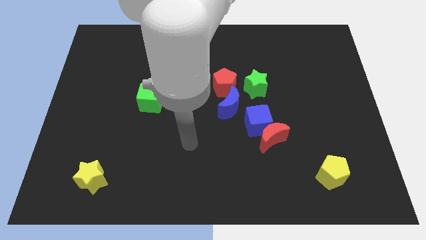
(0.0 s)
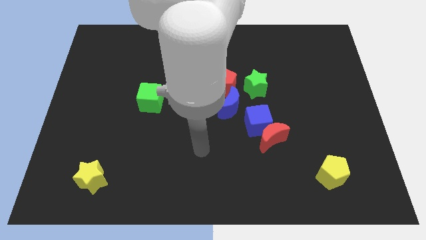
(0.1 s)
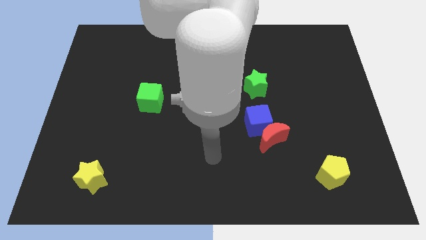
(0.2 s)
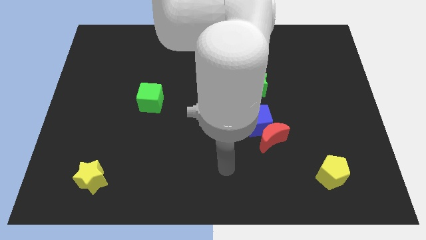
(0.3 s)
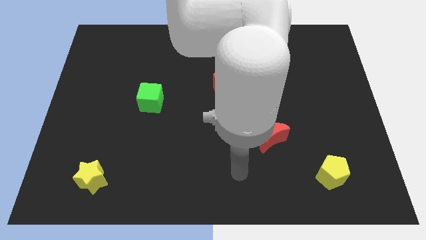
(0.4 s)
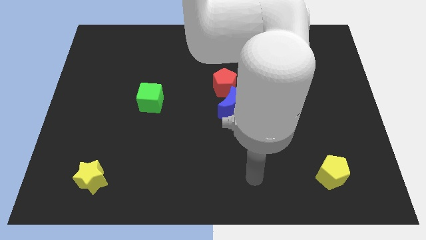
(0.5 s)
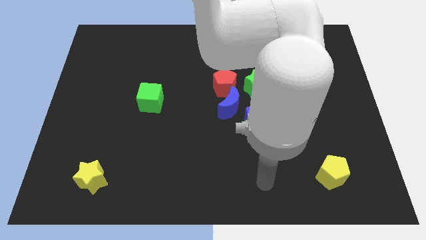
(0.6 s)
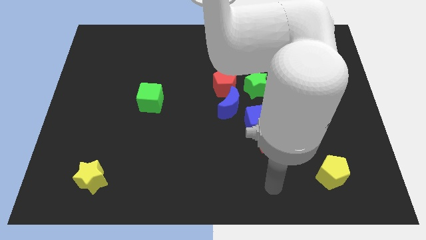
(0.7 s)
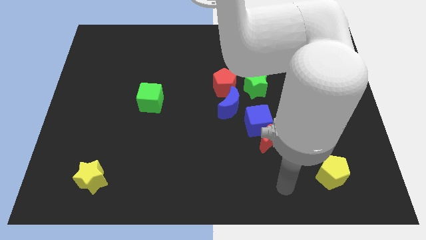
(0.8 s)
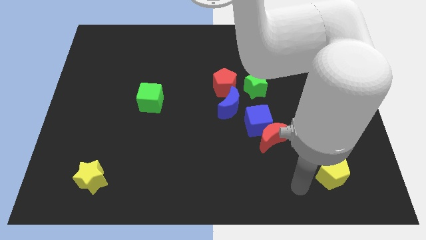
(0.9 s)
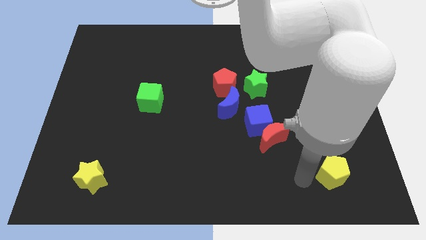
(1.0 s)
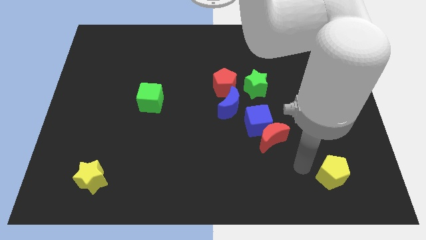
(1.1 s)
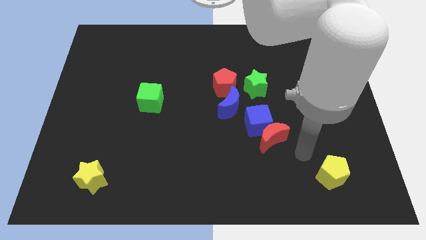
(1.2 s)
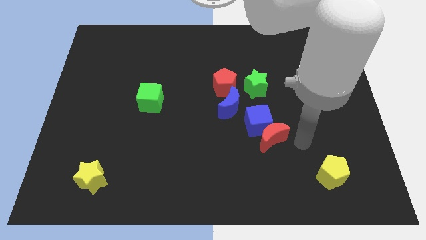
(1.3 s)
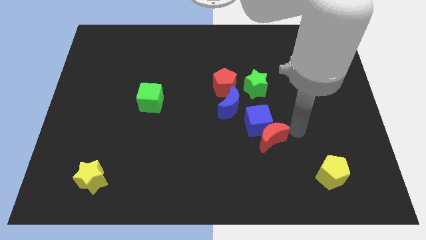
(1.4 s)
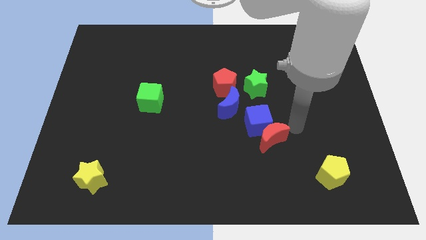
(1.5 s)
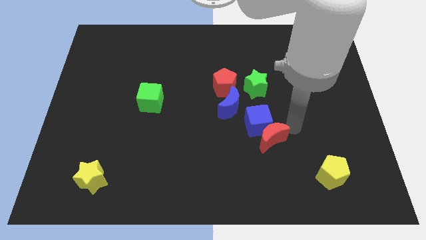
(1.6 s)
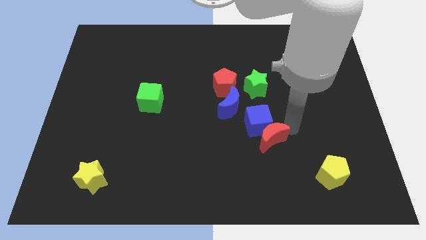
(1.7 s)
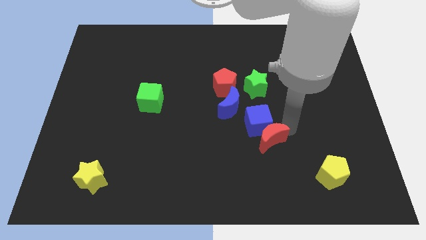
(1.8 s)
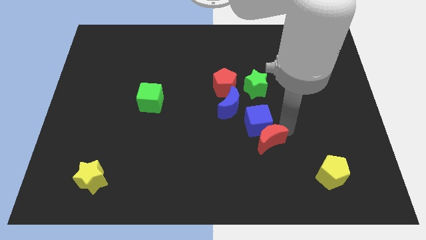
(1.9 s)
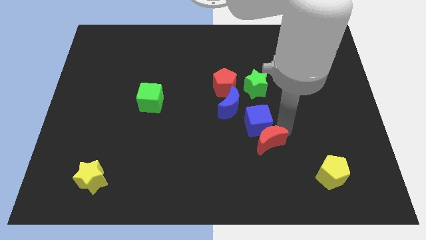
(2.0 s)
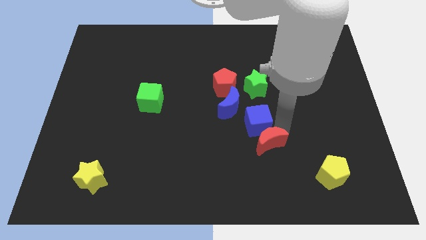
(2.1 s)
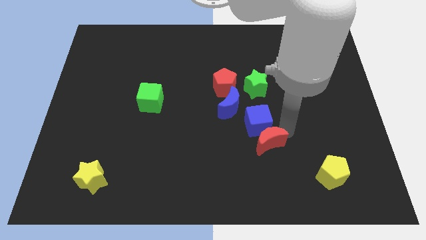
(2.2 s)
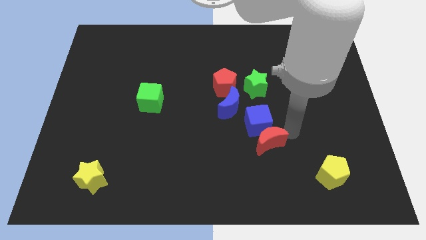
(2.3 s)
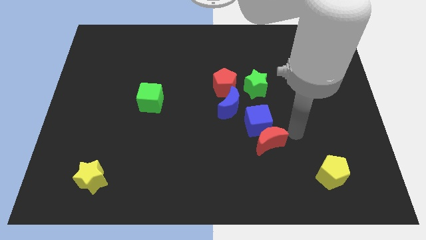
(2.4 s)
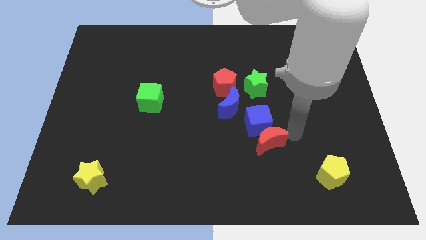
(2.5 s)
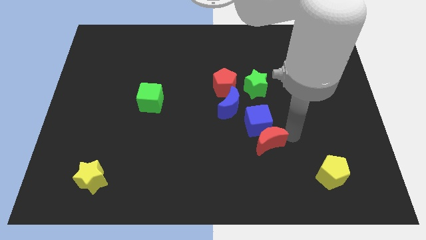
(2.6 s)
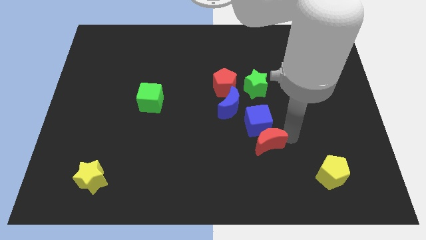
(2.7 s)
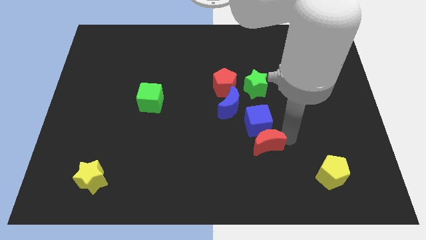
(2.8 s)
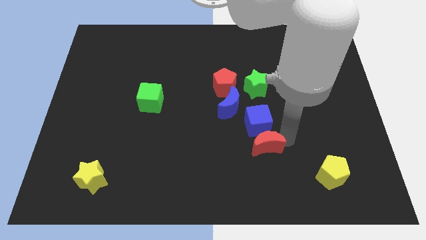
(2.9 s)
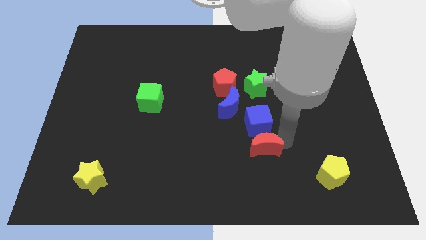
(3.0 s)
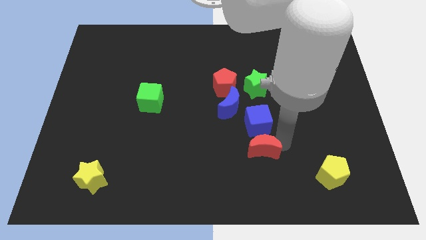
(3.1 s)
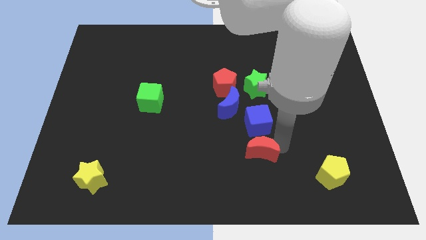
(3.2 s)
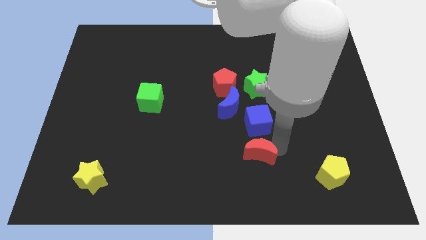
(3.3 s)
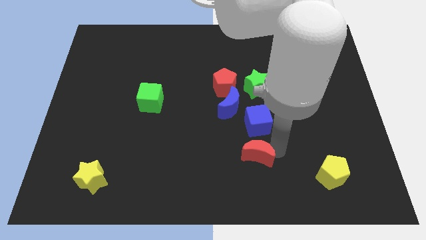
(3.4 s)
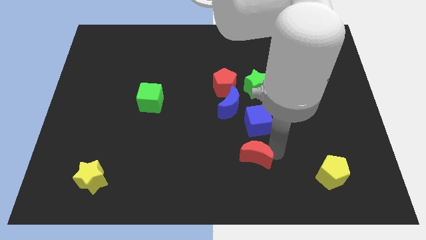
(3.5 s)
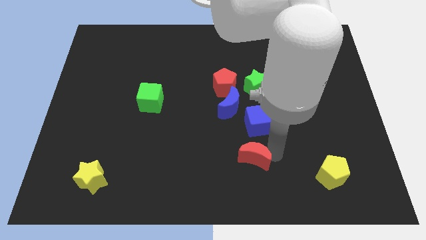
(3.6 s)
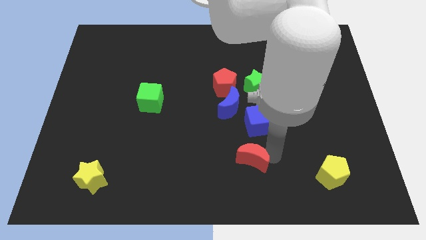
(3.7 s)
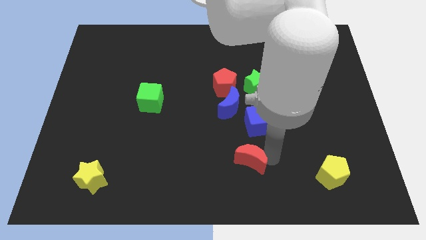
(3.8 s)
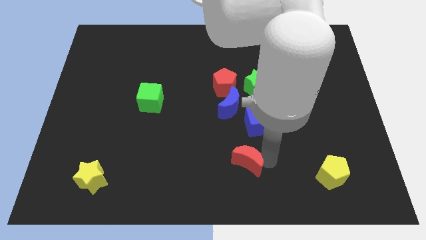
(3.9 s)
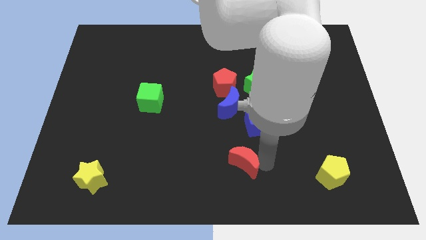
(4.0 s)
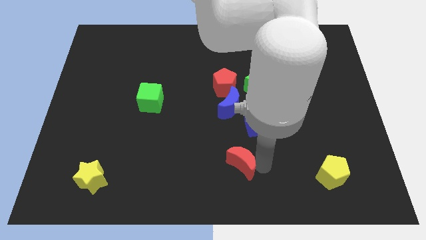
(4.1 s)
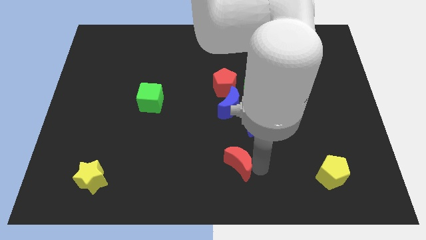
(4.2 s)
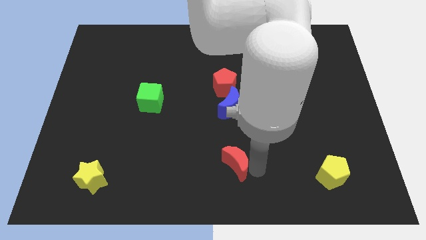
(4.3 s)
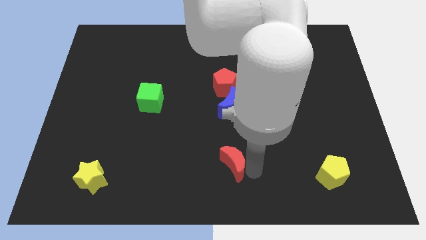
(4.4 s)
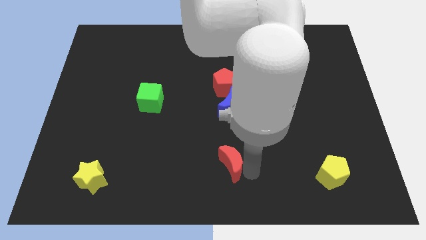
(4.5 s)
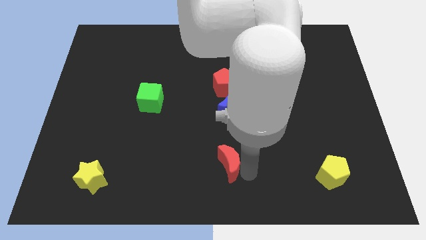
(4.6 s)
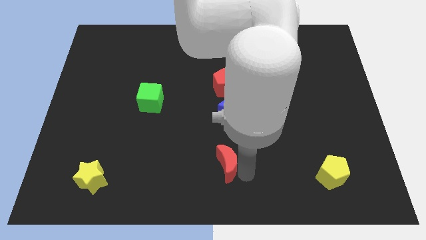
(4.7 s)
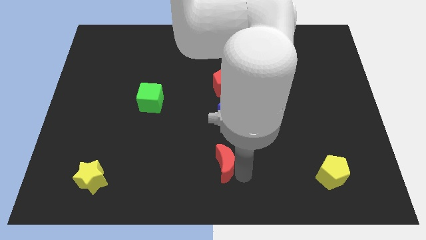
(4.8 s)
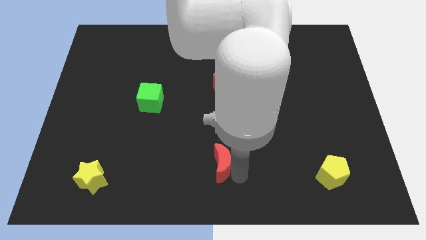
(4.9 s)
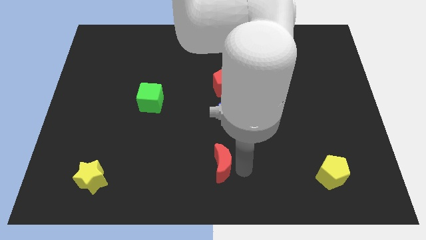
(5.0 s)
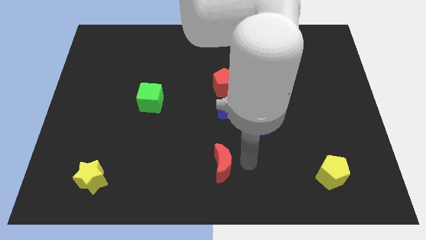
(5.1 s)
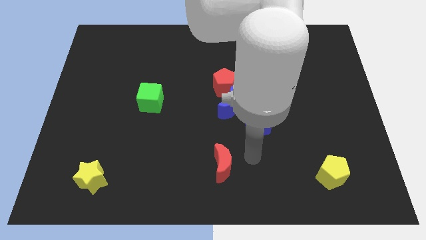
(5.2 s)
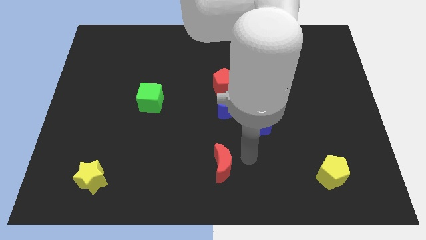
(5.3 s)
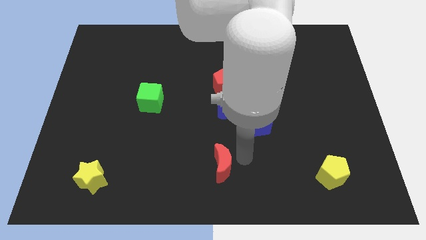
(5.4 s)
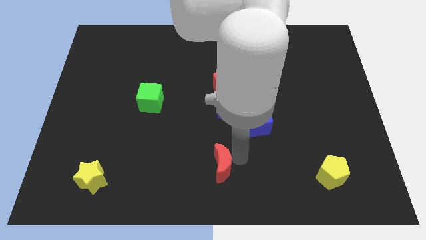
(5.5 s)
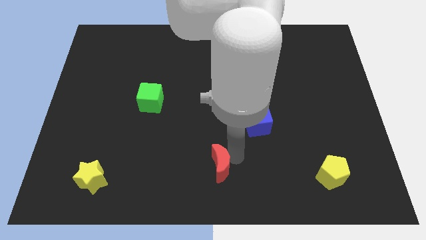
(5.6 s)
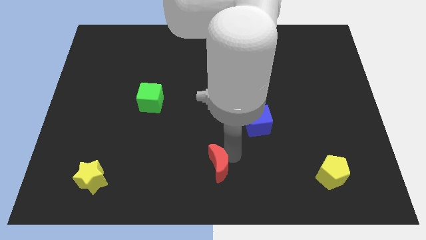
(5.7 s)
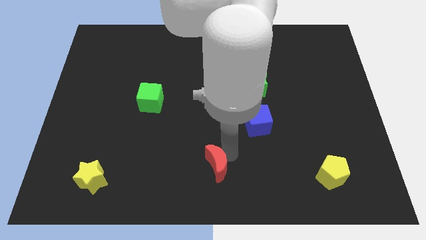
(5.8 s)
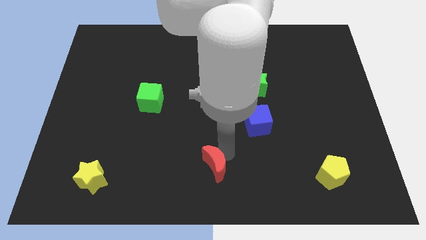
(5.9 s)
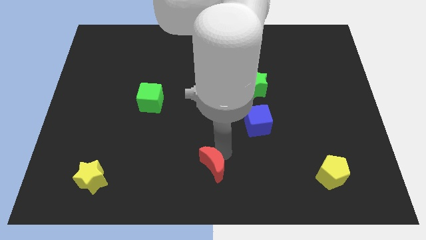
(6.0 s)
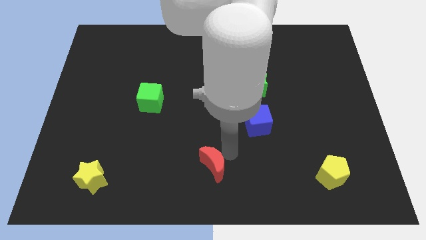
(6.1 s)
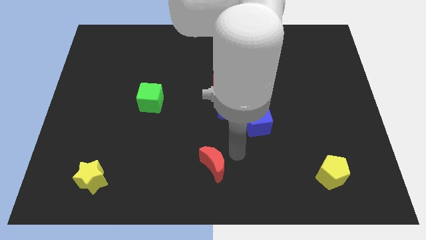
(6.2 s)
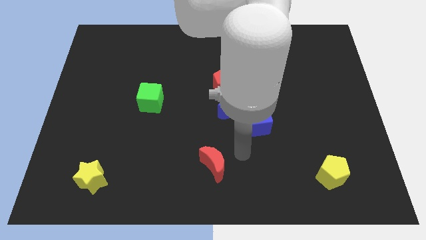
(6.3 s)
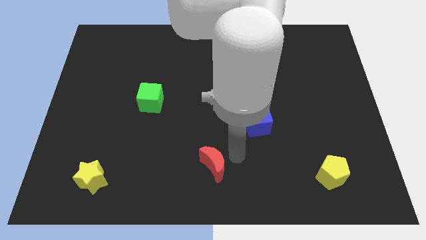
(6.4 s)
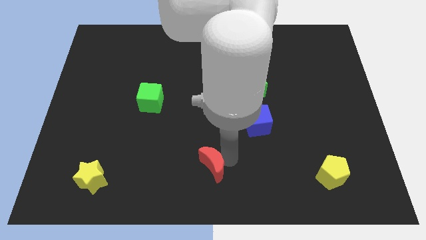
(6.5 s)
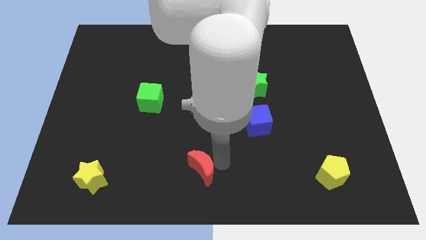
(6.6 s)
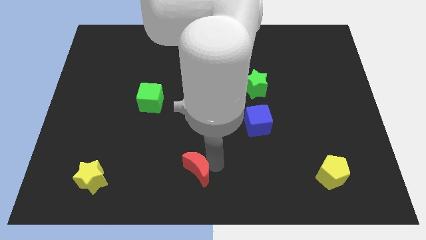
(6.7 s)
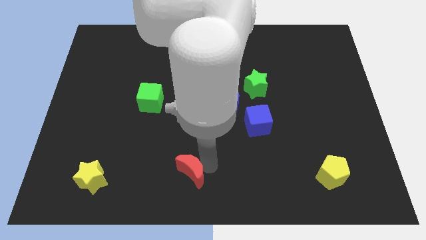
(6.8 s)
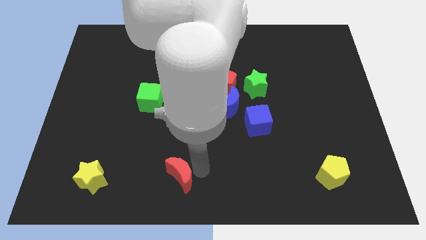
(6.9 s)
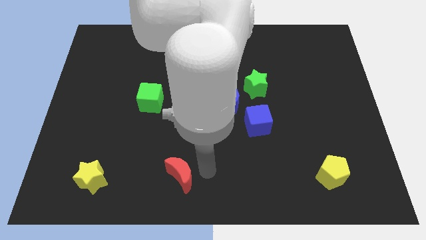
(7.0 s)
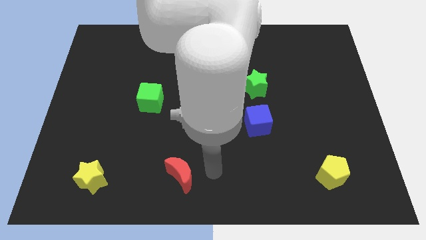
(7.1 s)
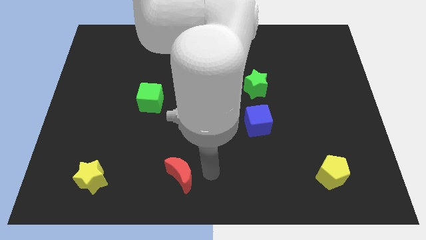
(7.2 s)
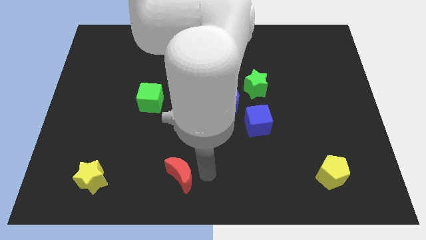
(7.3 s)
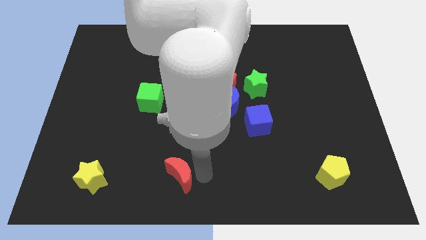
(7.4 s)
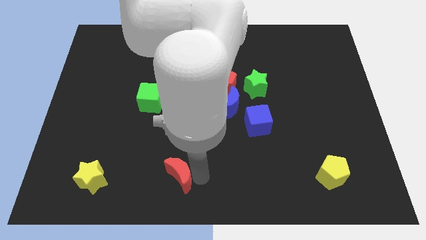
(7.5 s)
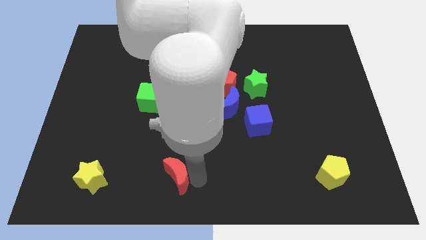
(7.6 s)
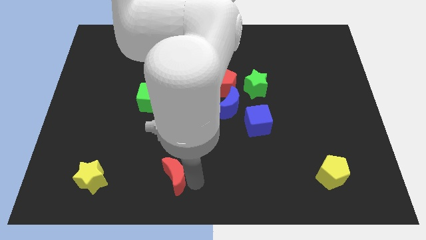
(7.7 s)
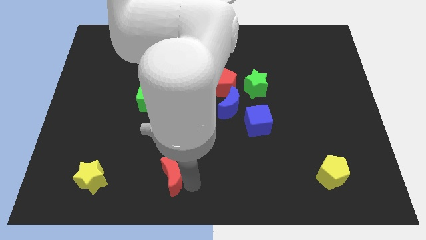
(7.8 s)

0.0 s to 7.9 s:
move the red moon to the right of the yellow star

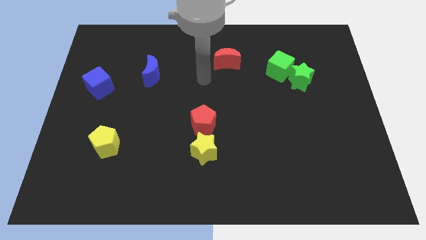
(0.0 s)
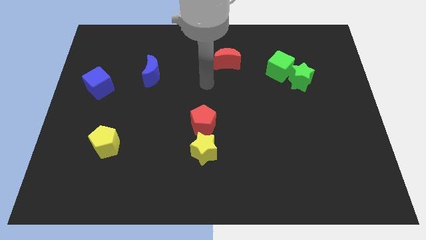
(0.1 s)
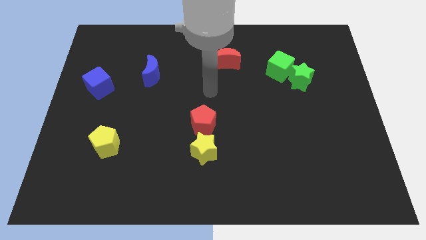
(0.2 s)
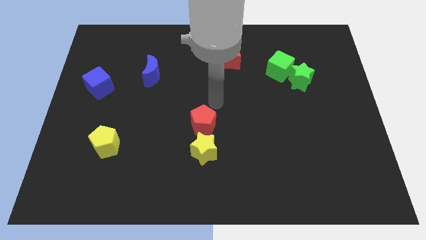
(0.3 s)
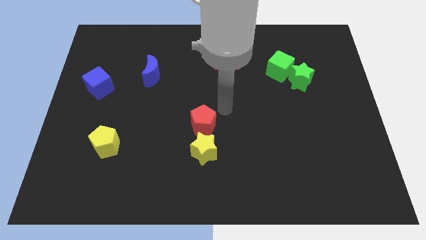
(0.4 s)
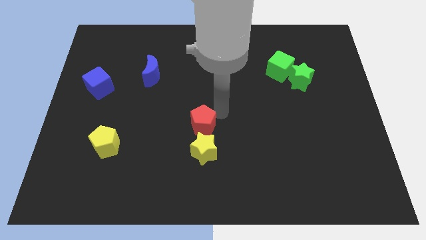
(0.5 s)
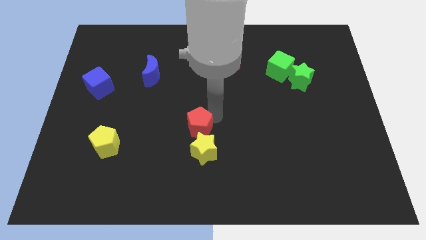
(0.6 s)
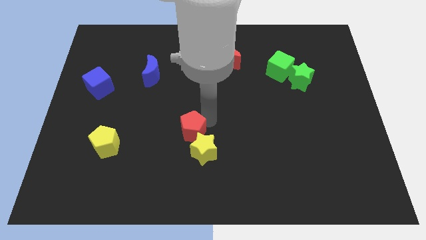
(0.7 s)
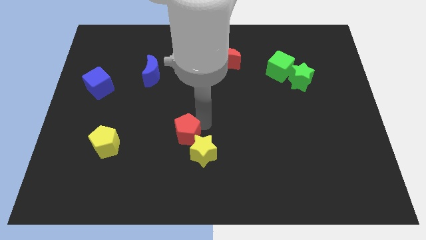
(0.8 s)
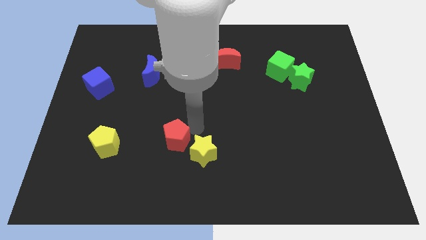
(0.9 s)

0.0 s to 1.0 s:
put the red pentagon to the left side of the yellow star
